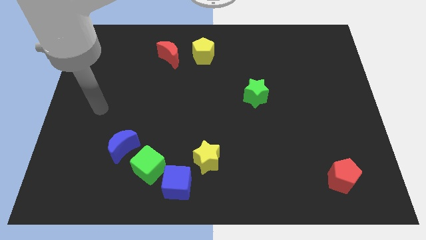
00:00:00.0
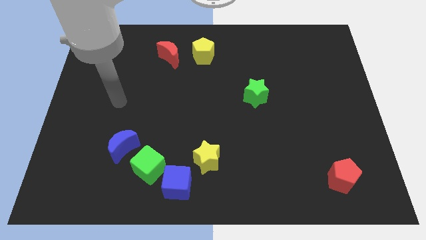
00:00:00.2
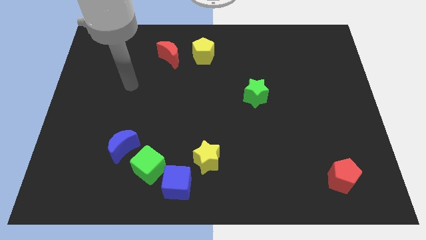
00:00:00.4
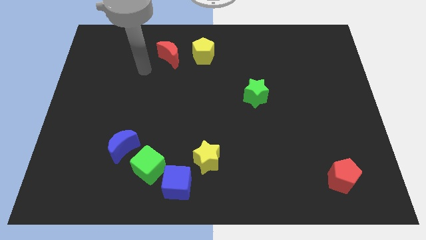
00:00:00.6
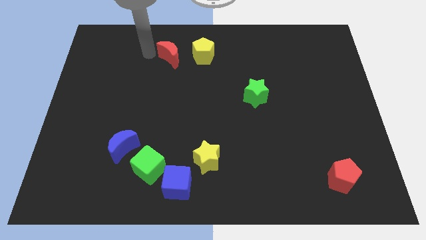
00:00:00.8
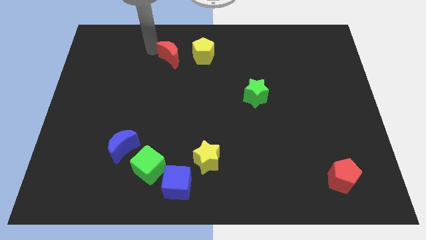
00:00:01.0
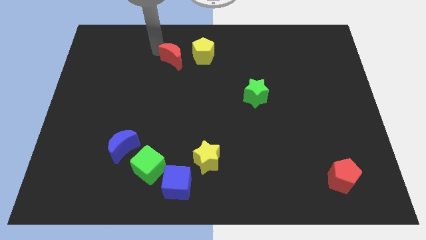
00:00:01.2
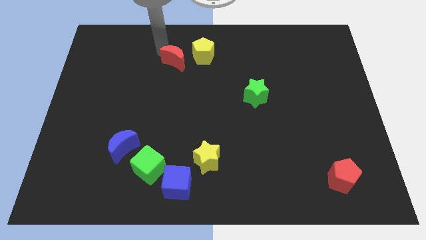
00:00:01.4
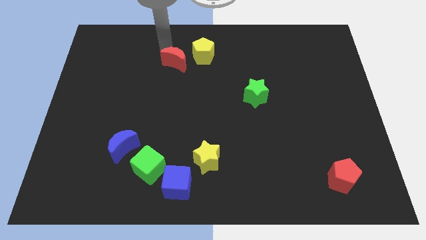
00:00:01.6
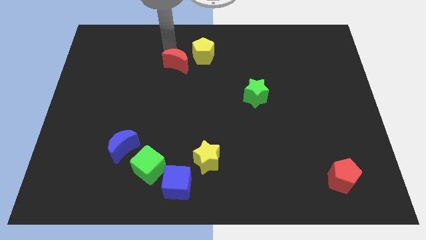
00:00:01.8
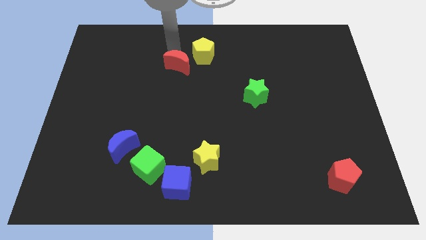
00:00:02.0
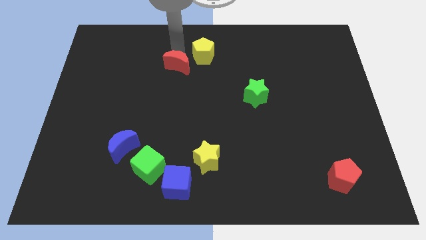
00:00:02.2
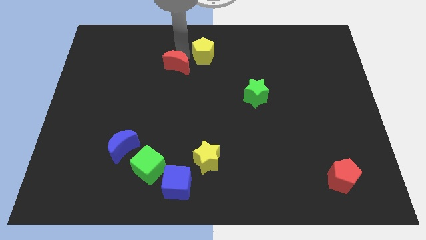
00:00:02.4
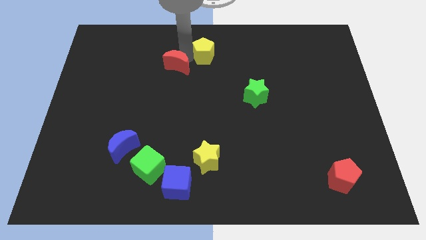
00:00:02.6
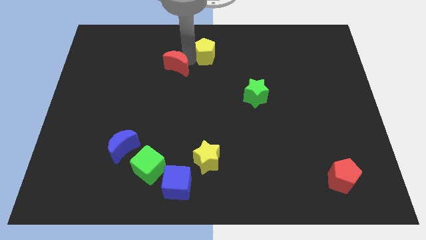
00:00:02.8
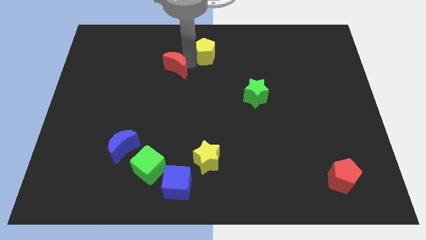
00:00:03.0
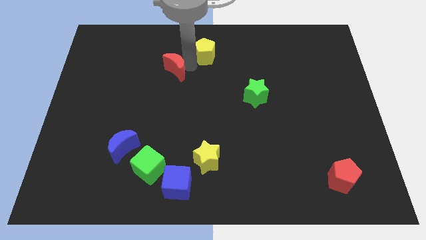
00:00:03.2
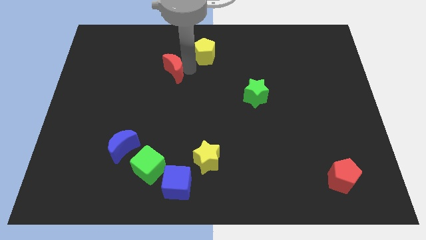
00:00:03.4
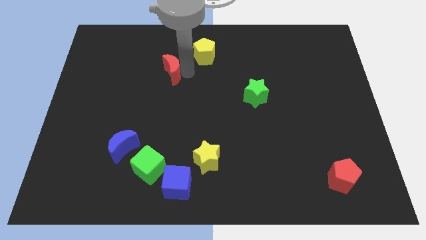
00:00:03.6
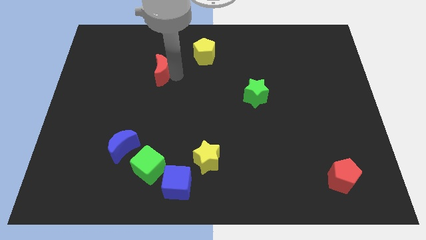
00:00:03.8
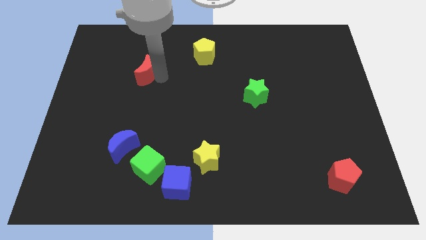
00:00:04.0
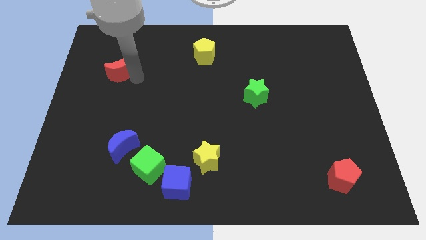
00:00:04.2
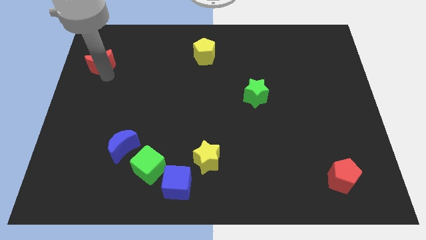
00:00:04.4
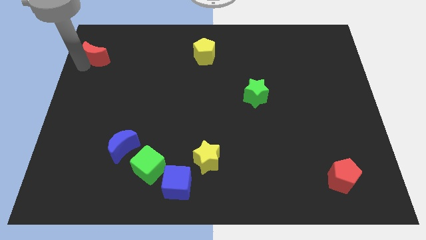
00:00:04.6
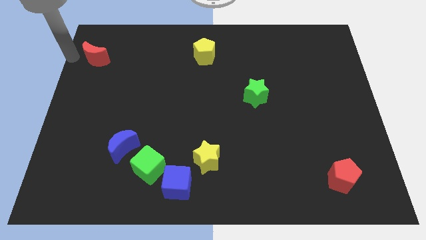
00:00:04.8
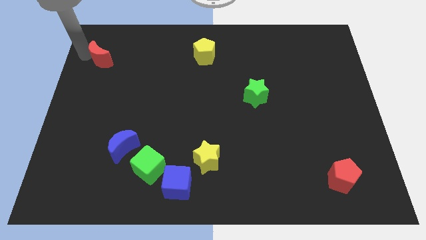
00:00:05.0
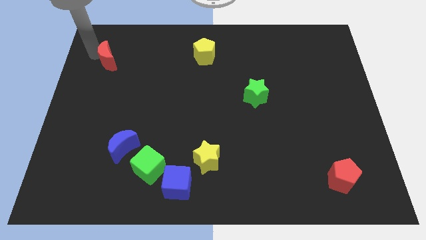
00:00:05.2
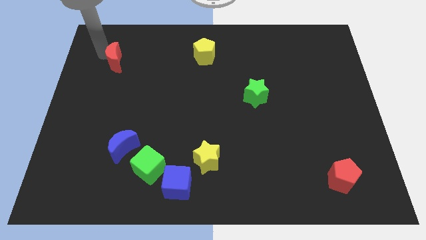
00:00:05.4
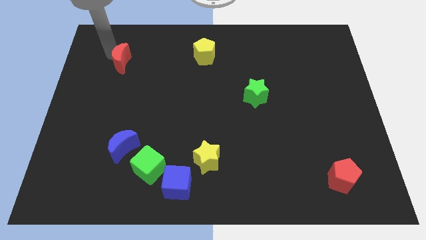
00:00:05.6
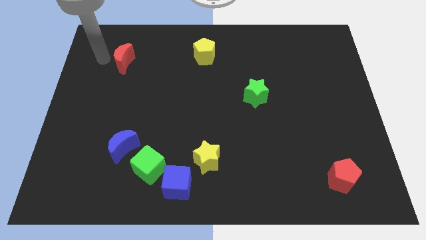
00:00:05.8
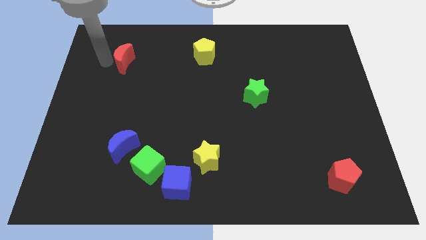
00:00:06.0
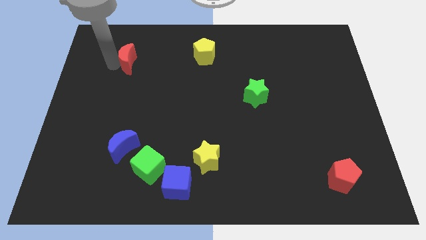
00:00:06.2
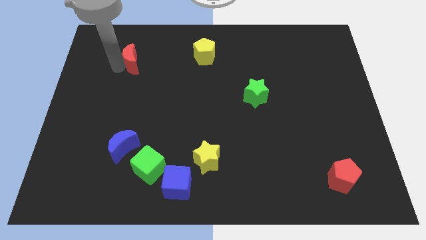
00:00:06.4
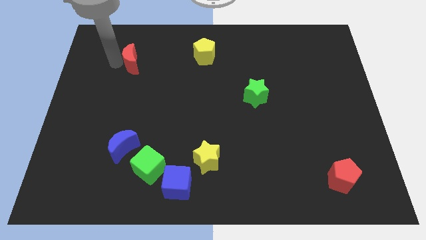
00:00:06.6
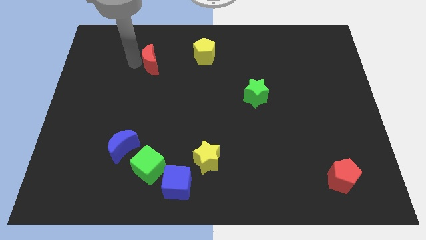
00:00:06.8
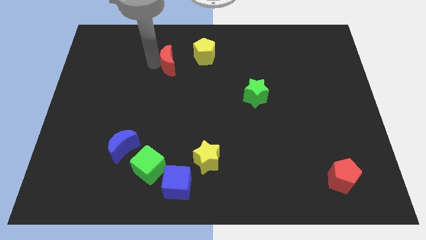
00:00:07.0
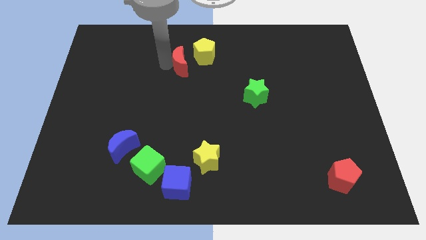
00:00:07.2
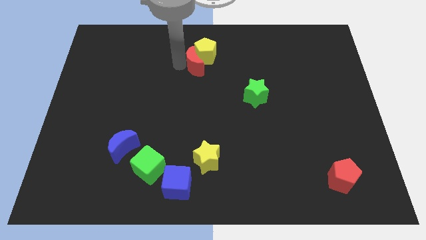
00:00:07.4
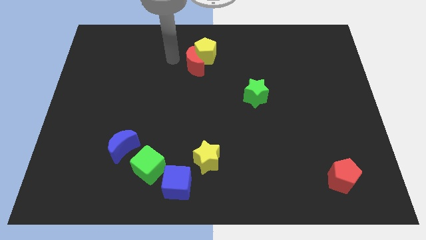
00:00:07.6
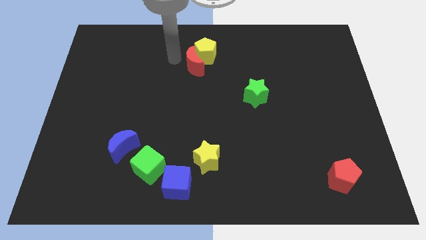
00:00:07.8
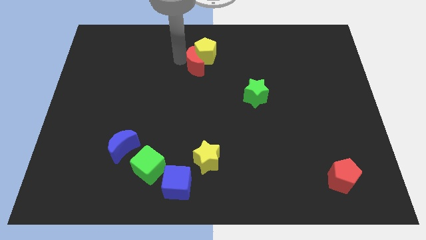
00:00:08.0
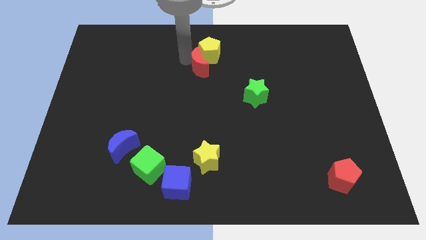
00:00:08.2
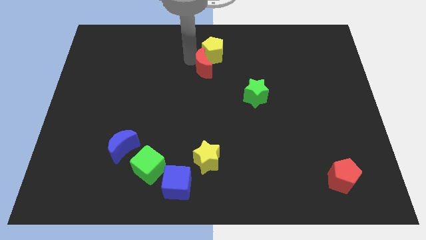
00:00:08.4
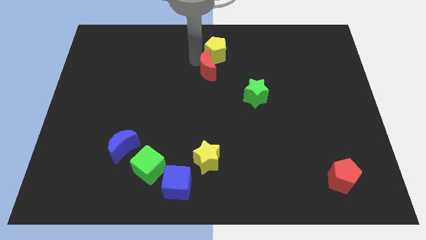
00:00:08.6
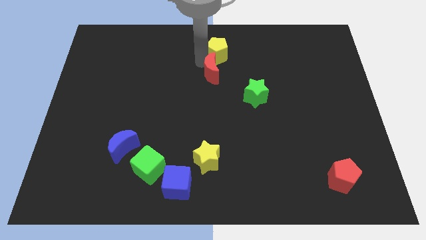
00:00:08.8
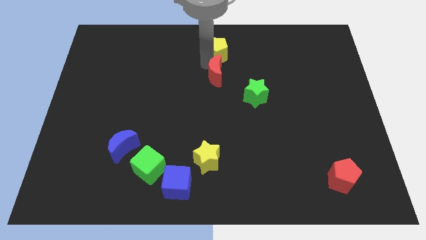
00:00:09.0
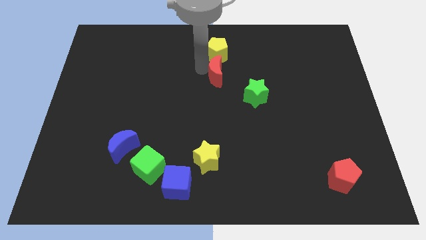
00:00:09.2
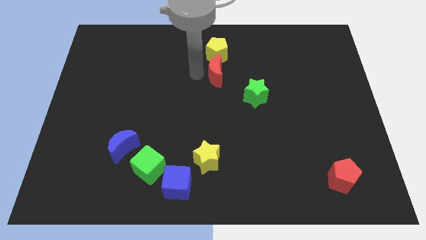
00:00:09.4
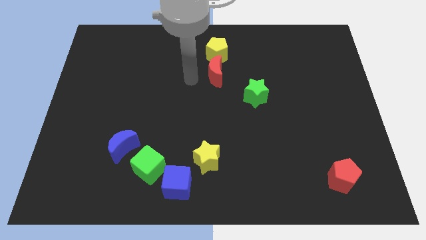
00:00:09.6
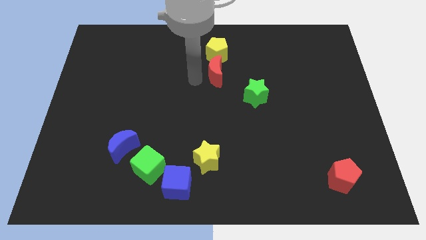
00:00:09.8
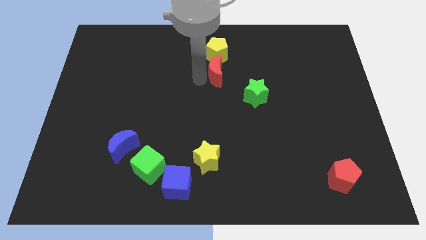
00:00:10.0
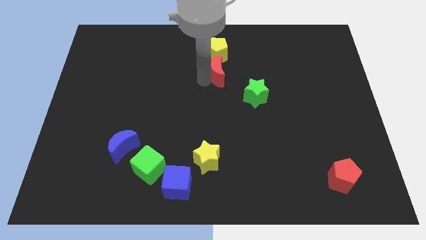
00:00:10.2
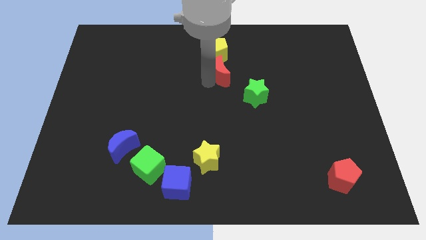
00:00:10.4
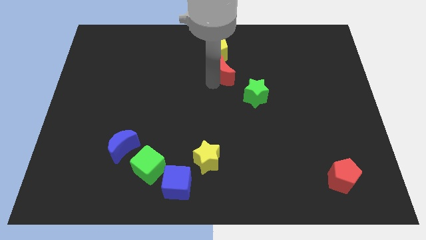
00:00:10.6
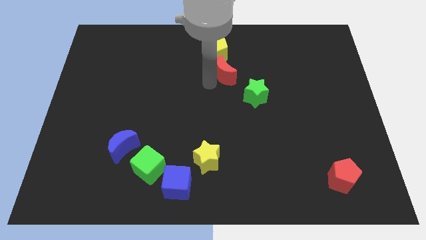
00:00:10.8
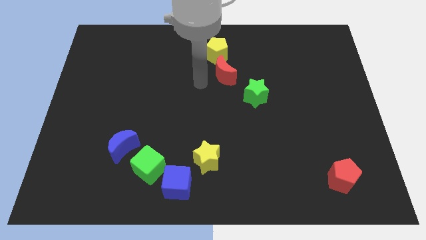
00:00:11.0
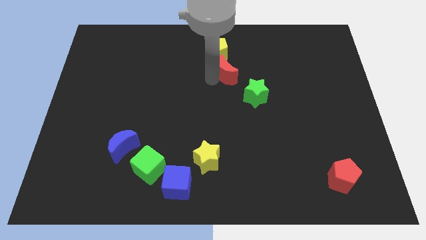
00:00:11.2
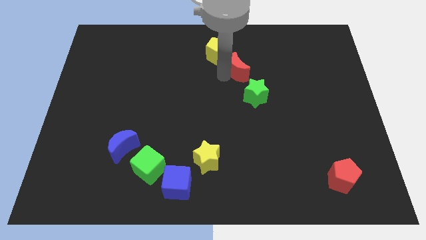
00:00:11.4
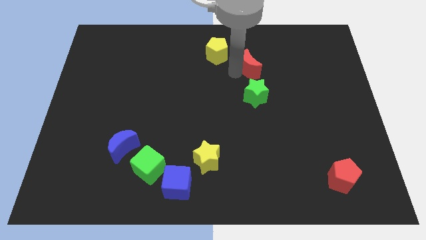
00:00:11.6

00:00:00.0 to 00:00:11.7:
slide the red moon to the right

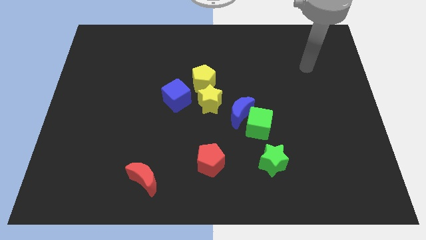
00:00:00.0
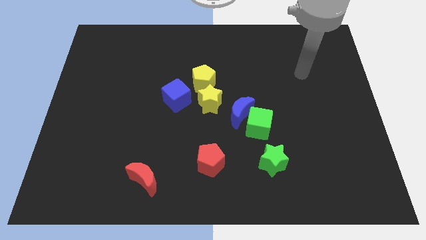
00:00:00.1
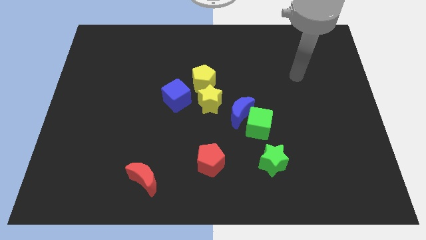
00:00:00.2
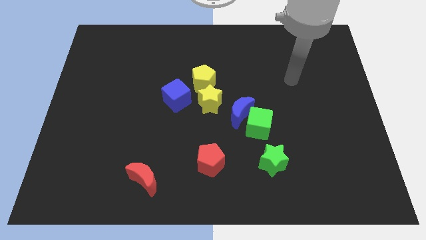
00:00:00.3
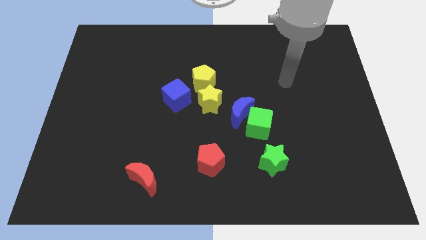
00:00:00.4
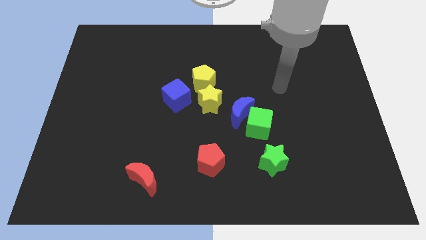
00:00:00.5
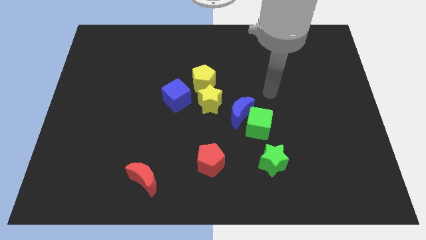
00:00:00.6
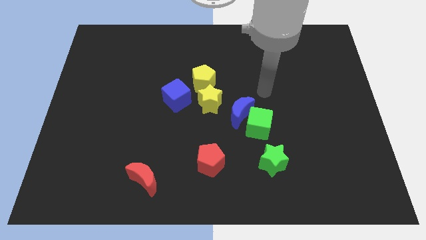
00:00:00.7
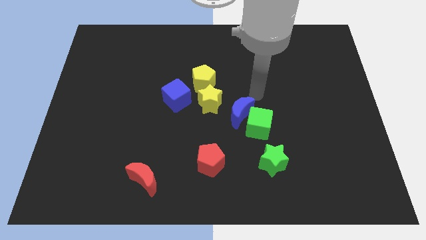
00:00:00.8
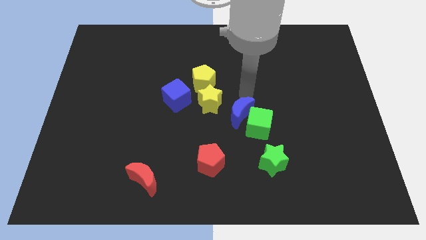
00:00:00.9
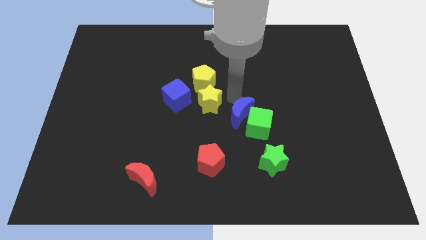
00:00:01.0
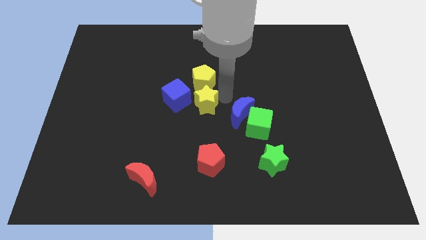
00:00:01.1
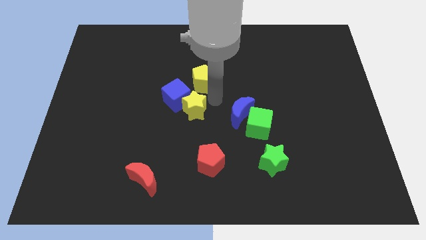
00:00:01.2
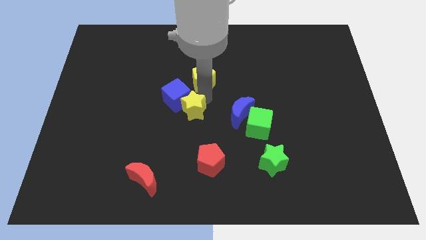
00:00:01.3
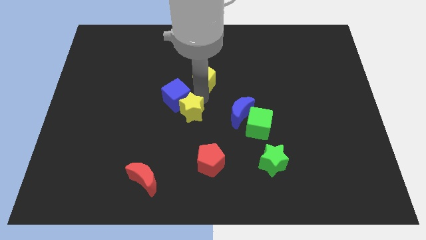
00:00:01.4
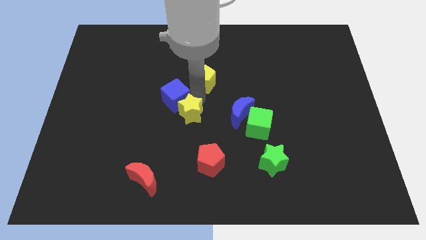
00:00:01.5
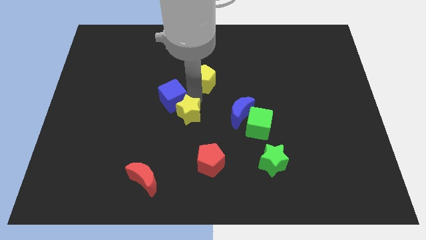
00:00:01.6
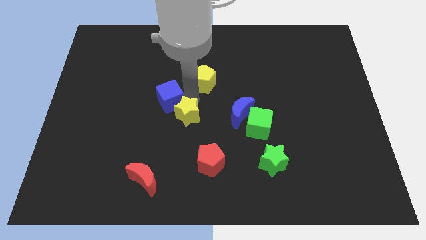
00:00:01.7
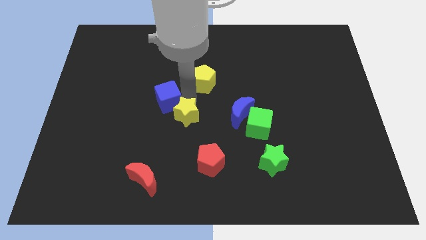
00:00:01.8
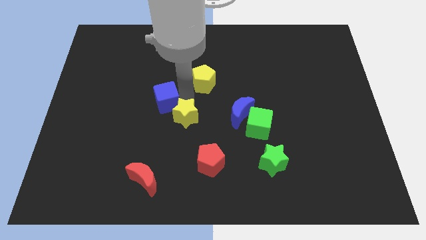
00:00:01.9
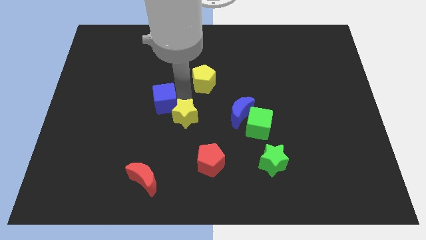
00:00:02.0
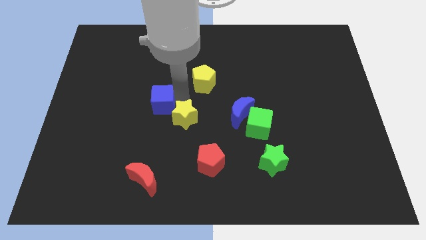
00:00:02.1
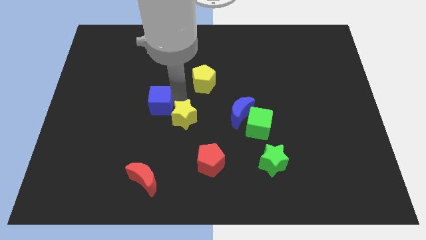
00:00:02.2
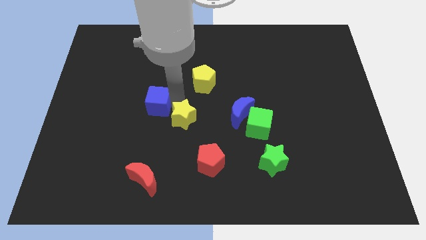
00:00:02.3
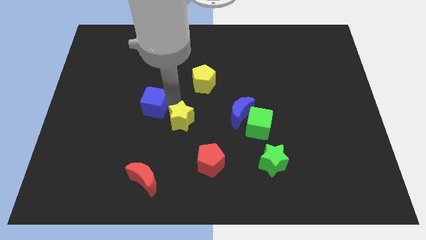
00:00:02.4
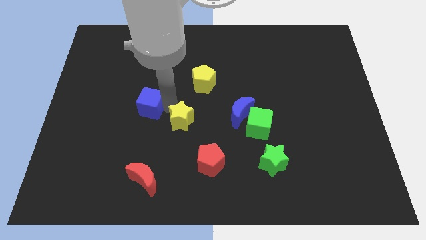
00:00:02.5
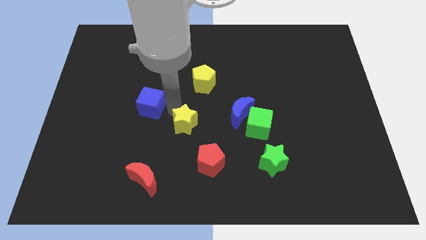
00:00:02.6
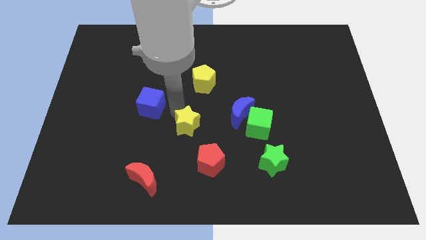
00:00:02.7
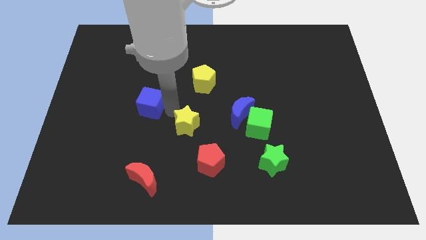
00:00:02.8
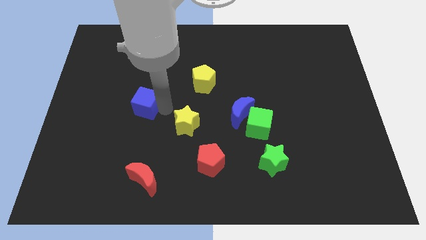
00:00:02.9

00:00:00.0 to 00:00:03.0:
slightly slide the blue cube to the left
